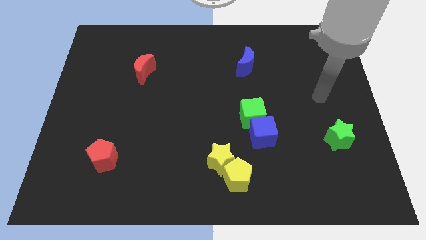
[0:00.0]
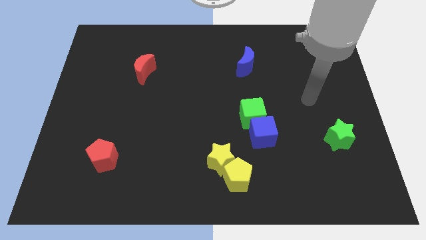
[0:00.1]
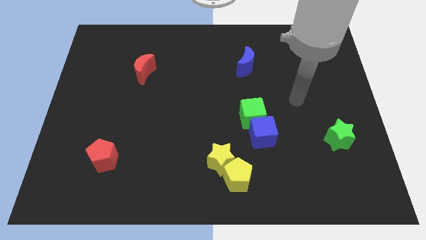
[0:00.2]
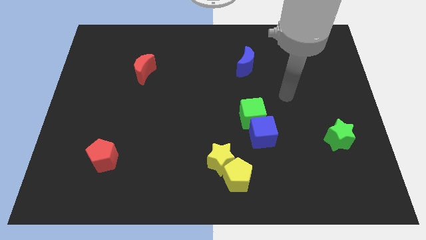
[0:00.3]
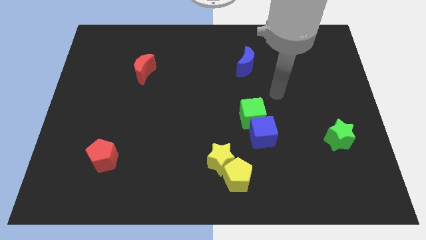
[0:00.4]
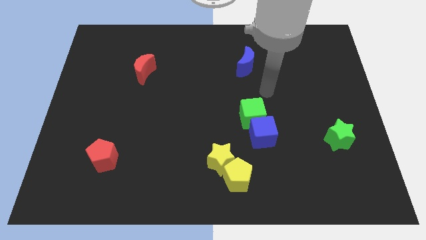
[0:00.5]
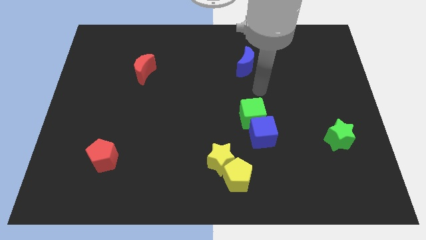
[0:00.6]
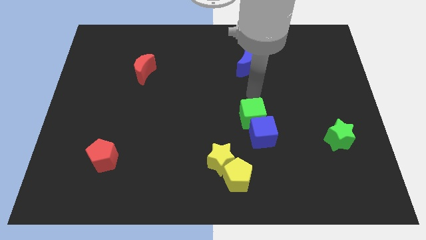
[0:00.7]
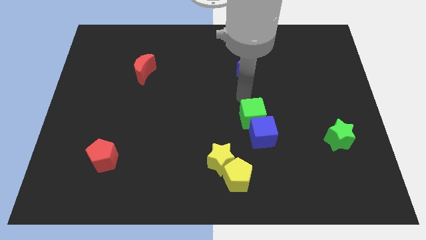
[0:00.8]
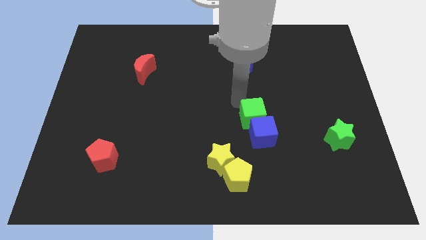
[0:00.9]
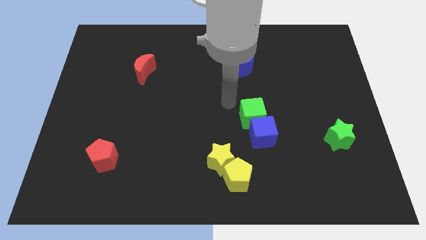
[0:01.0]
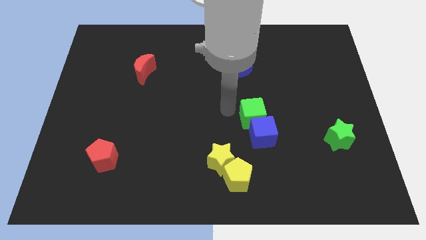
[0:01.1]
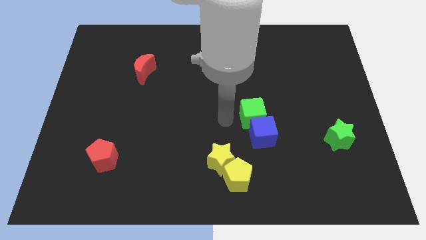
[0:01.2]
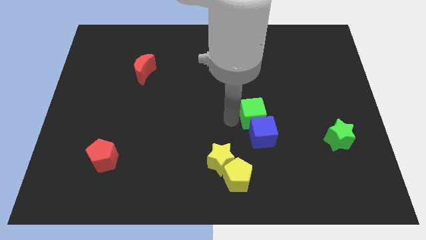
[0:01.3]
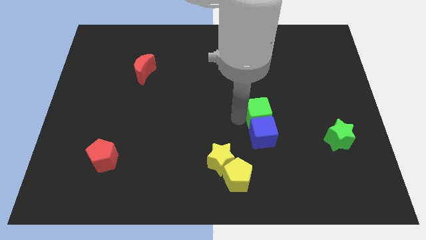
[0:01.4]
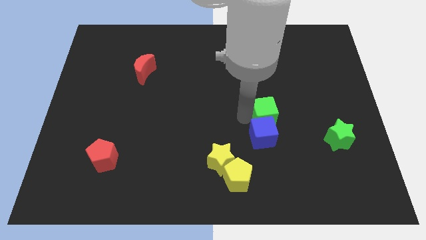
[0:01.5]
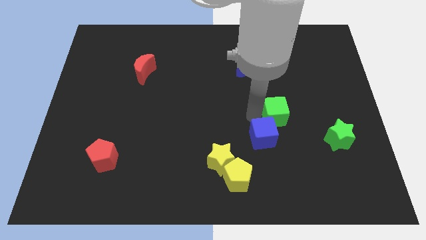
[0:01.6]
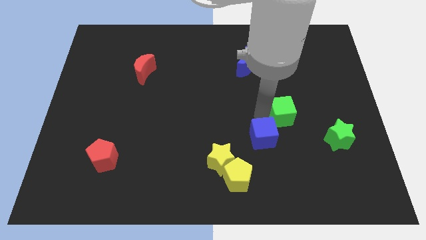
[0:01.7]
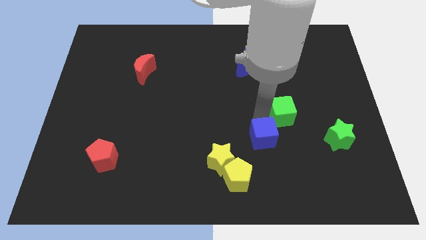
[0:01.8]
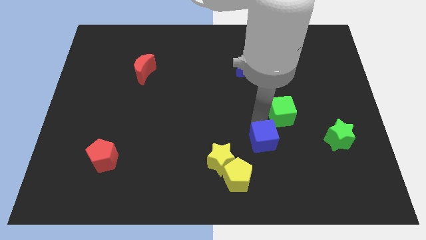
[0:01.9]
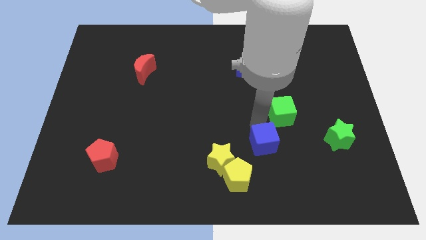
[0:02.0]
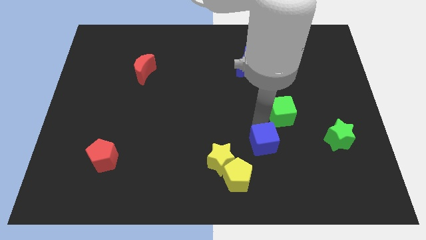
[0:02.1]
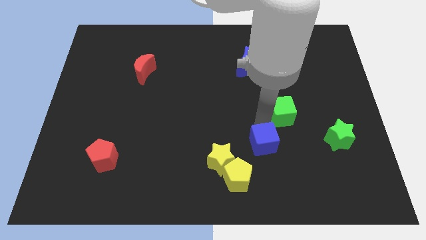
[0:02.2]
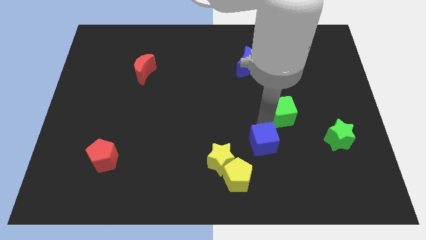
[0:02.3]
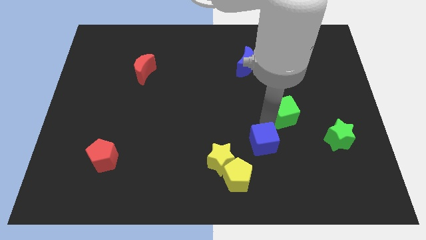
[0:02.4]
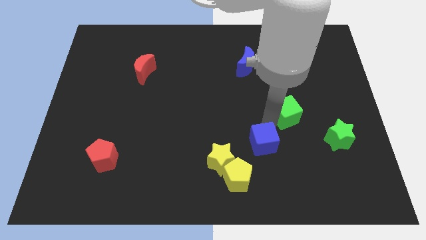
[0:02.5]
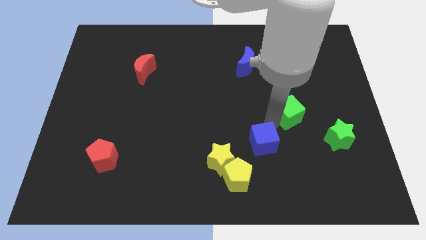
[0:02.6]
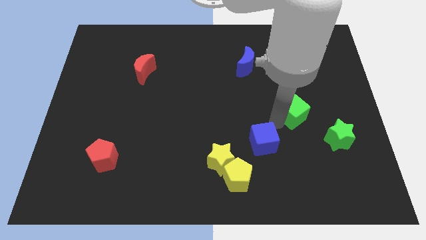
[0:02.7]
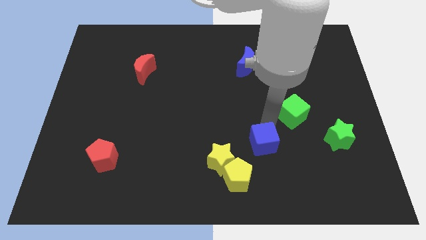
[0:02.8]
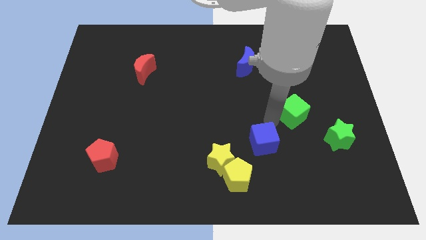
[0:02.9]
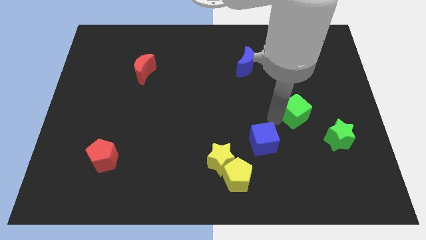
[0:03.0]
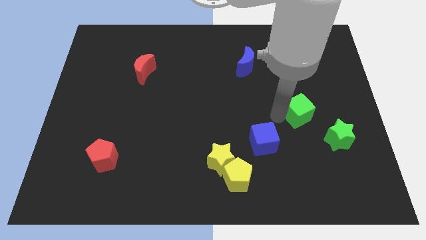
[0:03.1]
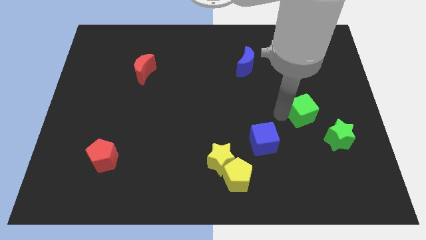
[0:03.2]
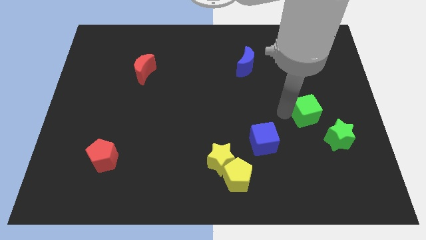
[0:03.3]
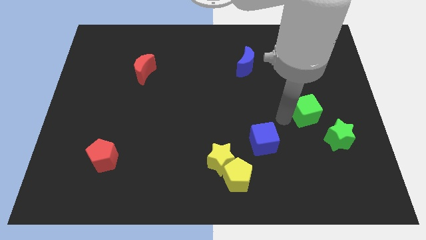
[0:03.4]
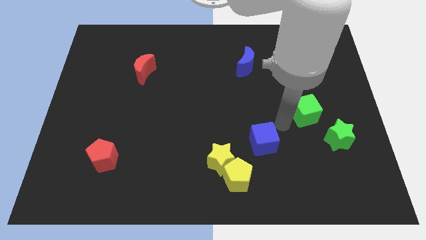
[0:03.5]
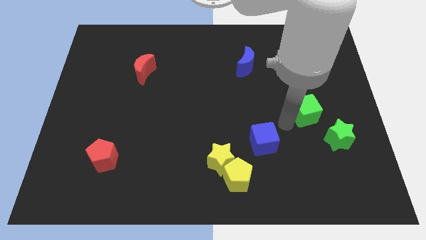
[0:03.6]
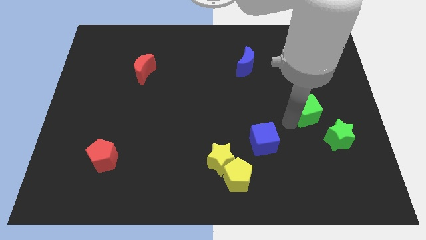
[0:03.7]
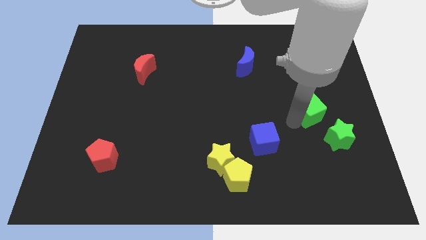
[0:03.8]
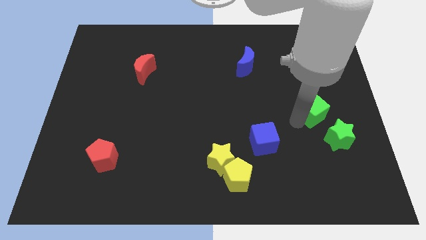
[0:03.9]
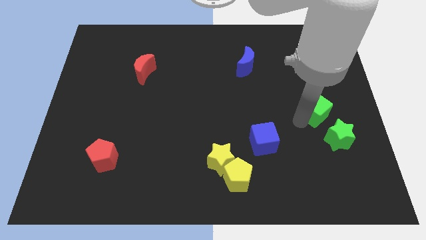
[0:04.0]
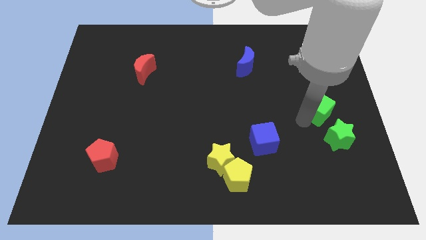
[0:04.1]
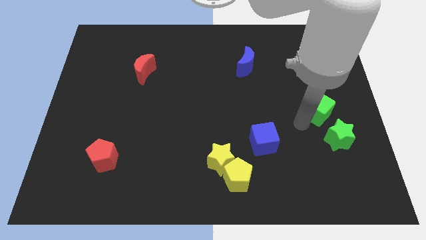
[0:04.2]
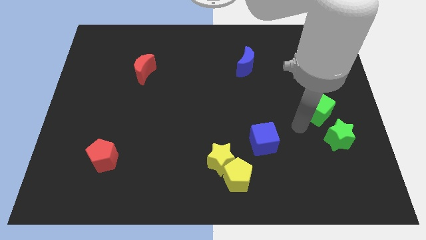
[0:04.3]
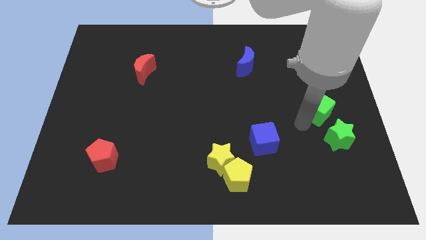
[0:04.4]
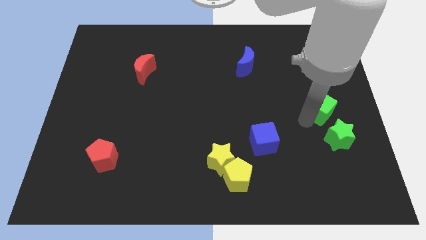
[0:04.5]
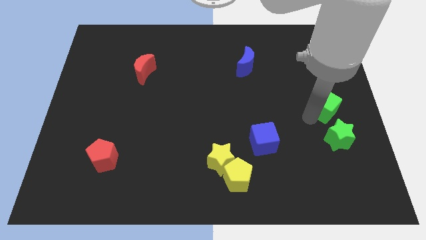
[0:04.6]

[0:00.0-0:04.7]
slide the green cube to the center right

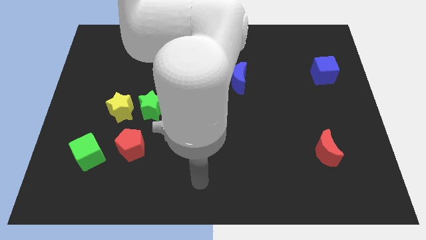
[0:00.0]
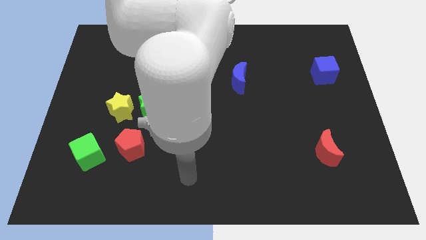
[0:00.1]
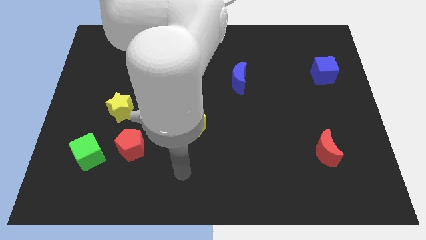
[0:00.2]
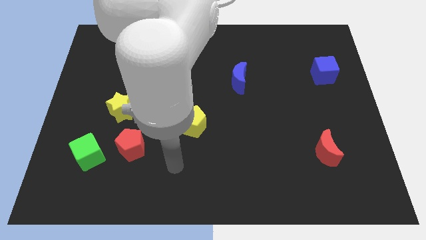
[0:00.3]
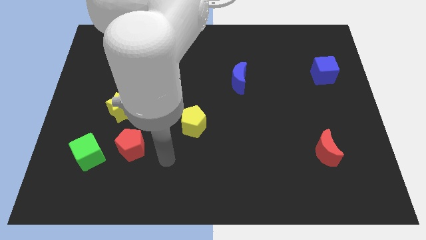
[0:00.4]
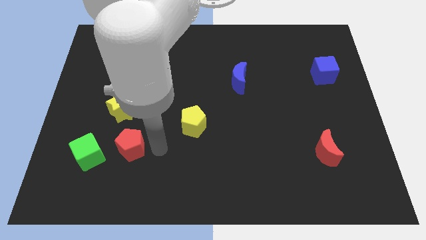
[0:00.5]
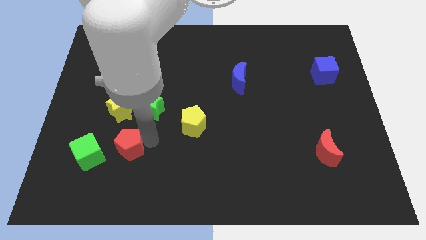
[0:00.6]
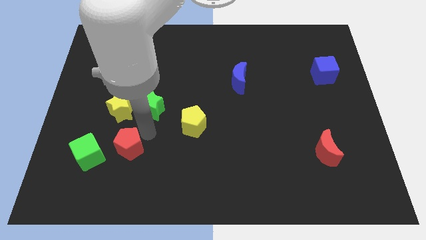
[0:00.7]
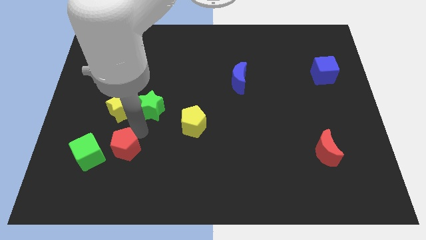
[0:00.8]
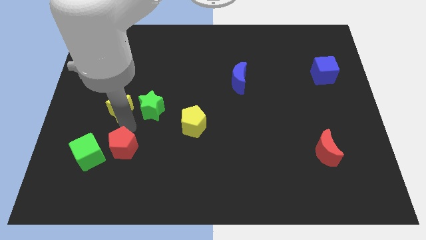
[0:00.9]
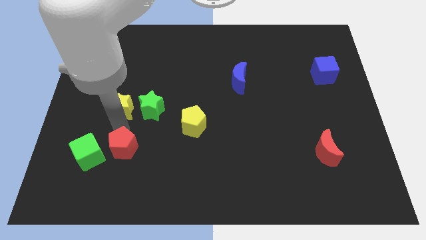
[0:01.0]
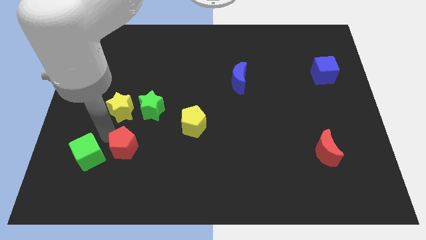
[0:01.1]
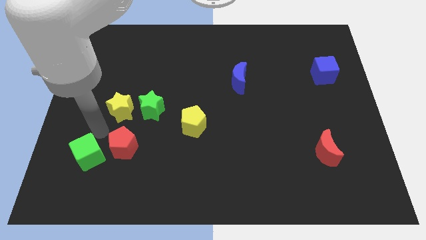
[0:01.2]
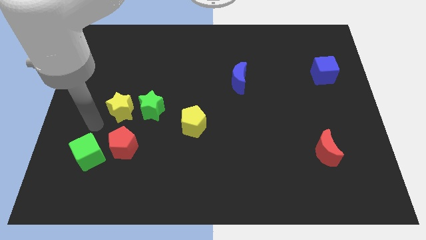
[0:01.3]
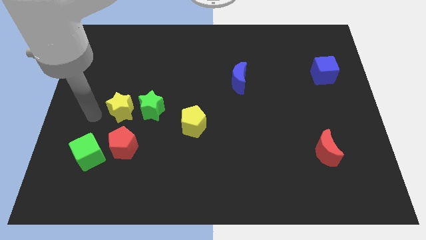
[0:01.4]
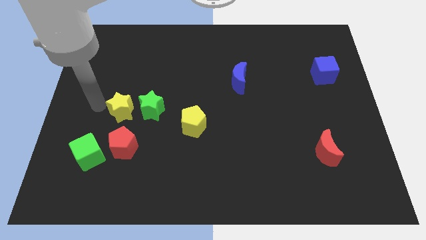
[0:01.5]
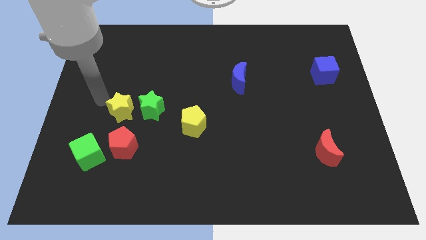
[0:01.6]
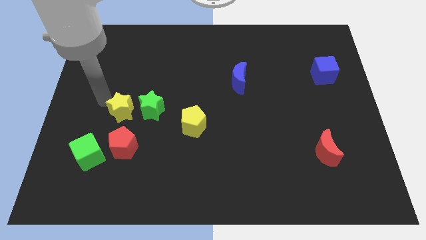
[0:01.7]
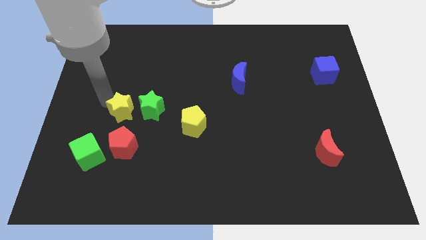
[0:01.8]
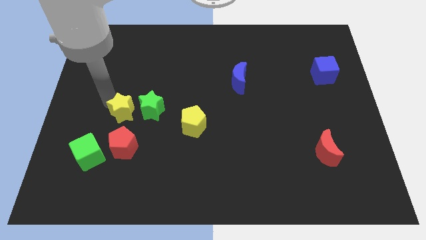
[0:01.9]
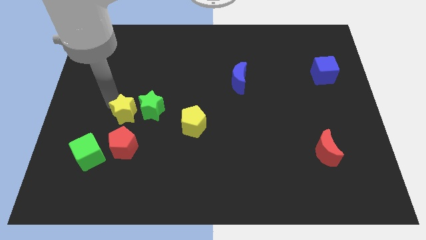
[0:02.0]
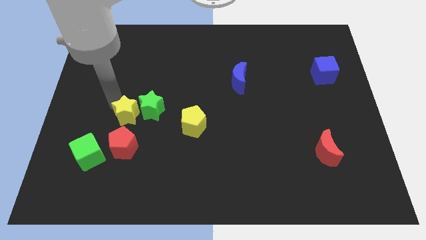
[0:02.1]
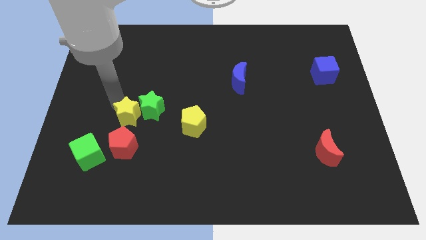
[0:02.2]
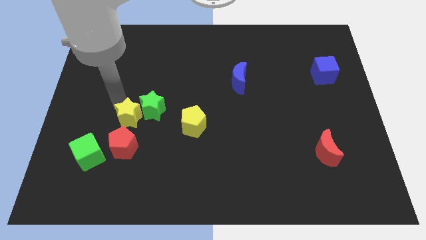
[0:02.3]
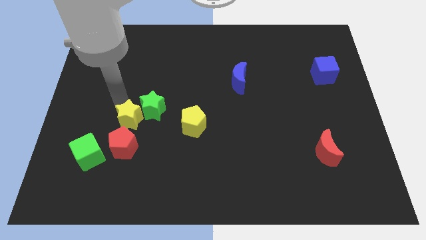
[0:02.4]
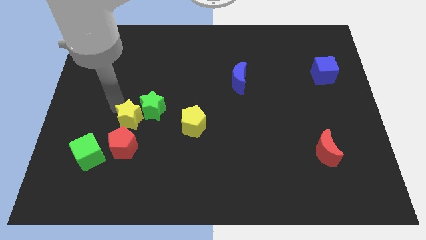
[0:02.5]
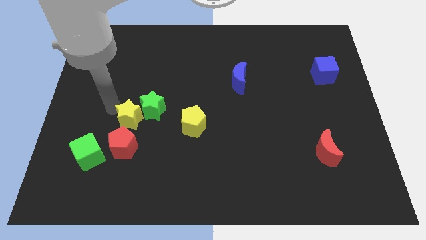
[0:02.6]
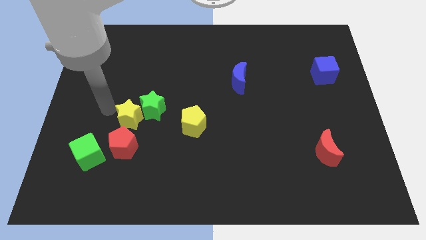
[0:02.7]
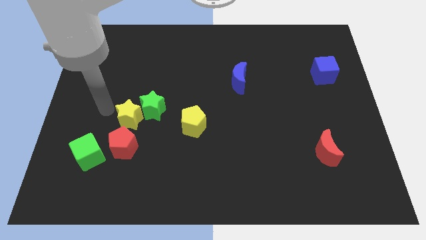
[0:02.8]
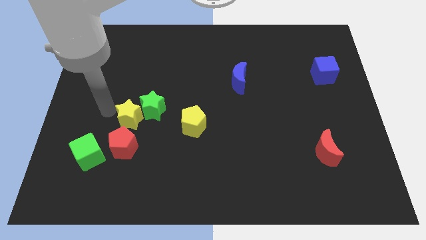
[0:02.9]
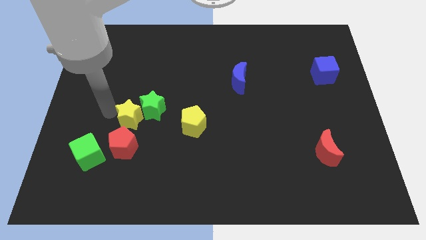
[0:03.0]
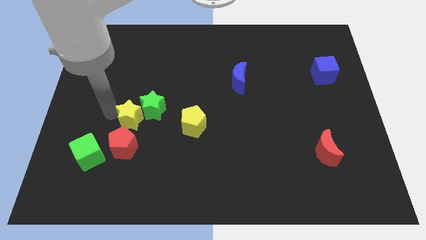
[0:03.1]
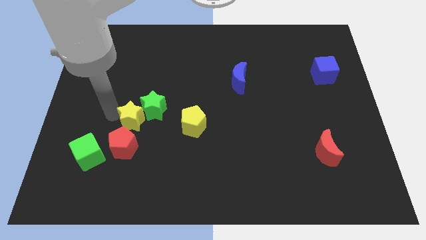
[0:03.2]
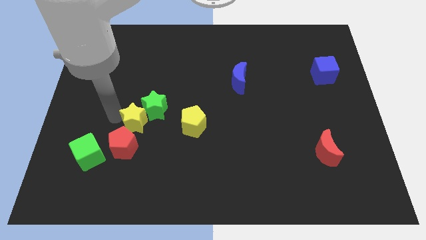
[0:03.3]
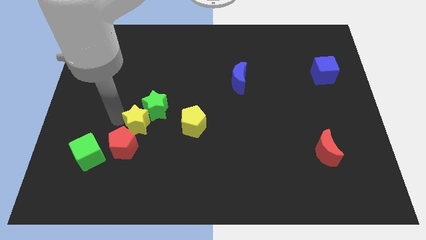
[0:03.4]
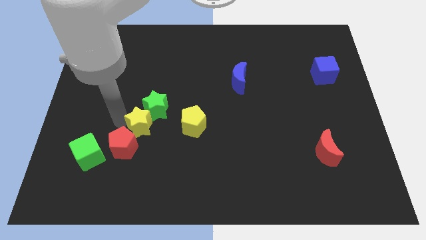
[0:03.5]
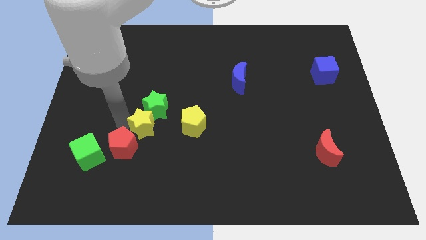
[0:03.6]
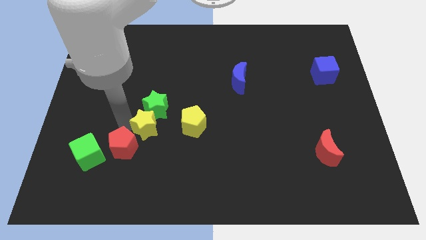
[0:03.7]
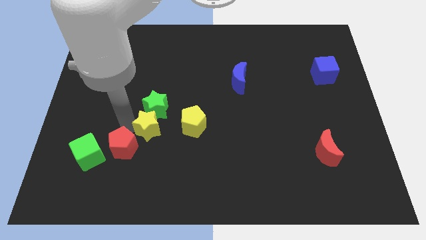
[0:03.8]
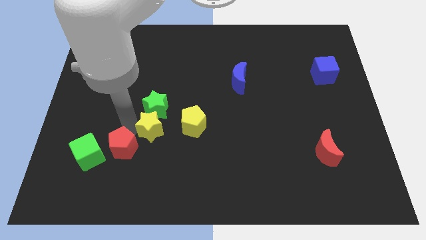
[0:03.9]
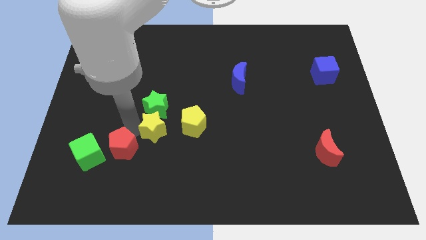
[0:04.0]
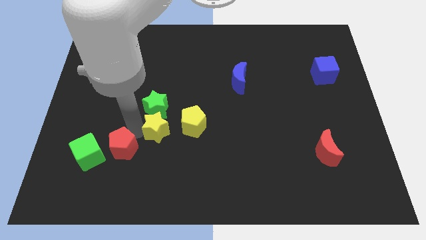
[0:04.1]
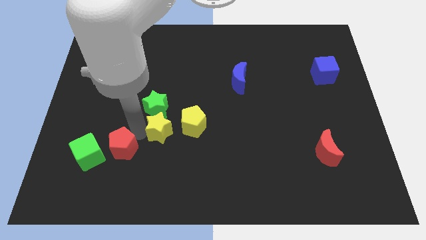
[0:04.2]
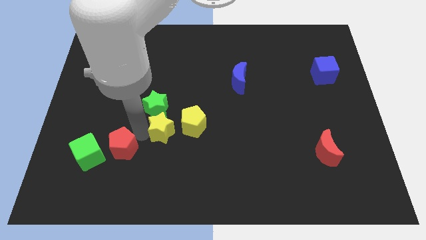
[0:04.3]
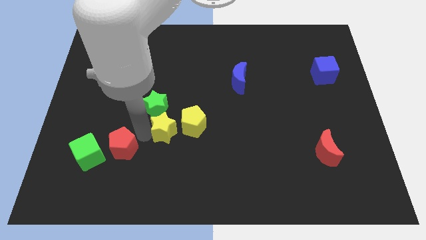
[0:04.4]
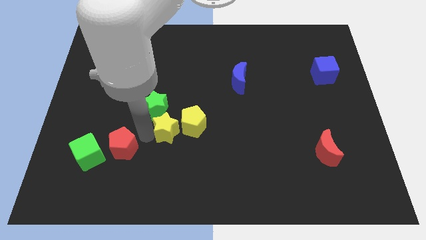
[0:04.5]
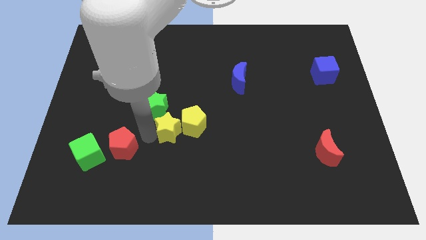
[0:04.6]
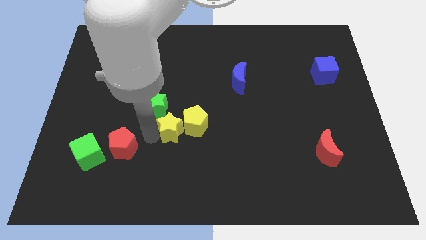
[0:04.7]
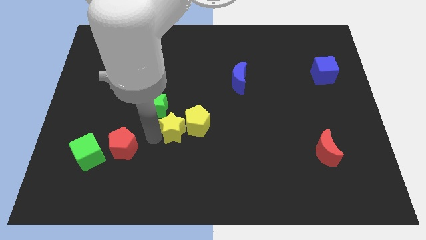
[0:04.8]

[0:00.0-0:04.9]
move the yellow star to the center
